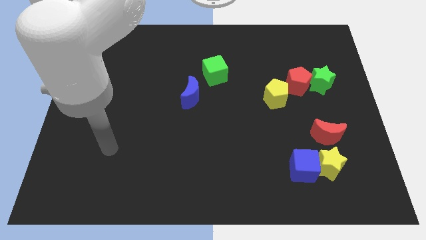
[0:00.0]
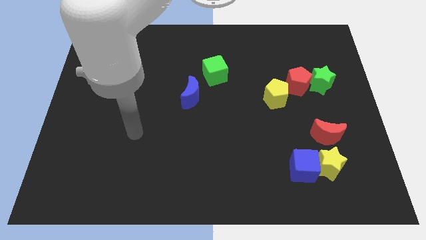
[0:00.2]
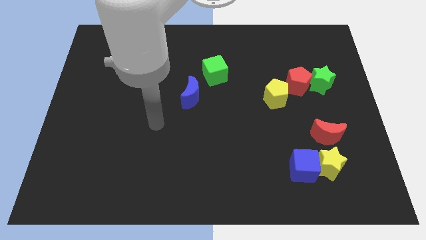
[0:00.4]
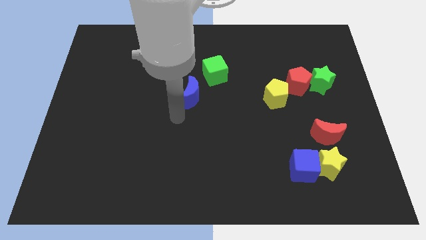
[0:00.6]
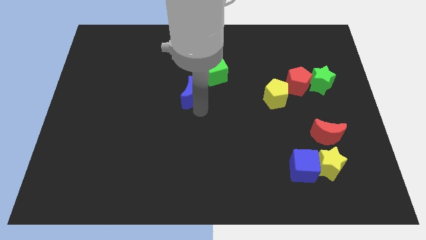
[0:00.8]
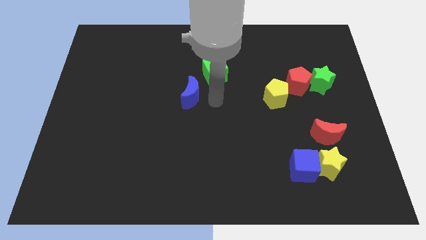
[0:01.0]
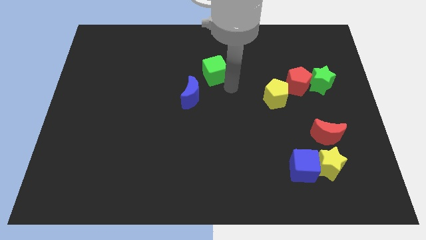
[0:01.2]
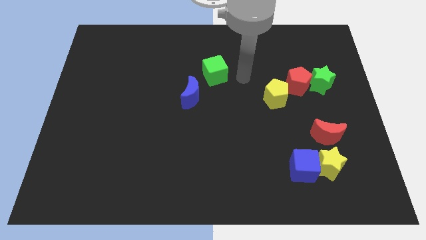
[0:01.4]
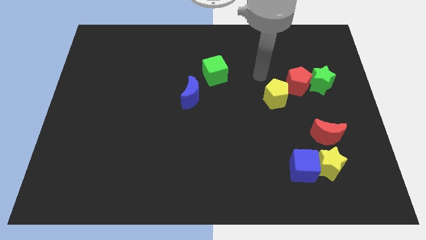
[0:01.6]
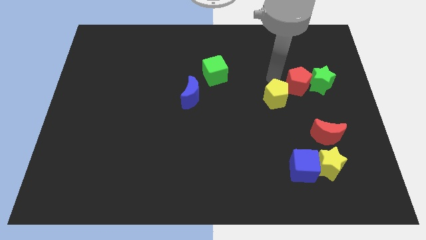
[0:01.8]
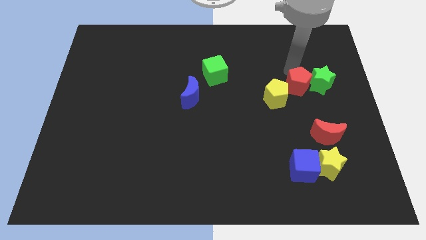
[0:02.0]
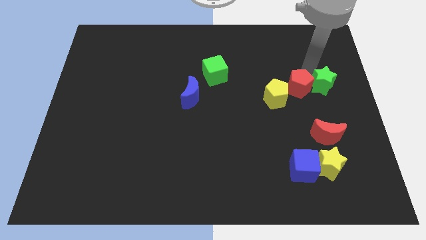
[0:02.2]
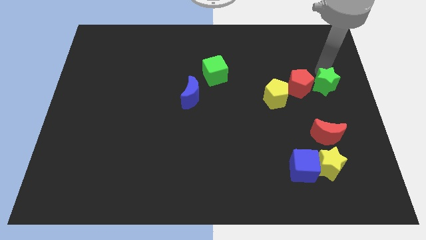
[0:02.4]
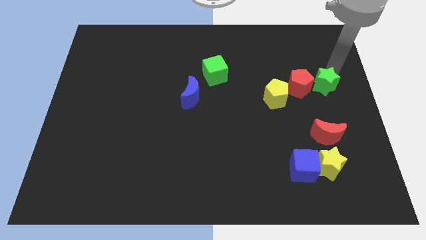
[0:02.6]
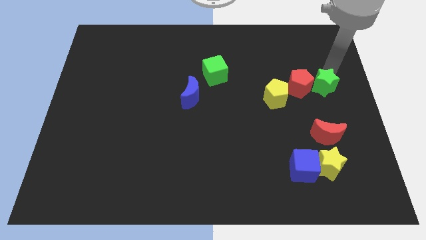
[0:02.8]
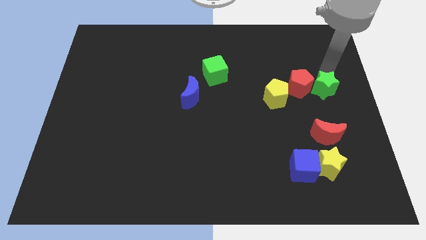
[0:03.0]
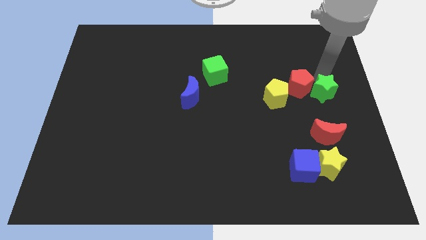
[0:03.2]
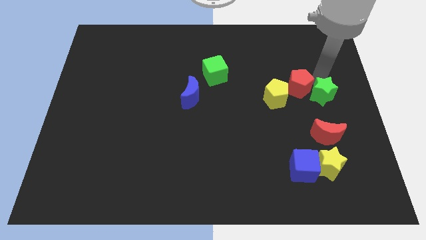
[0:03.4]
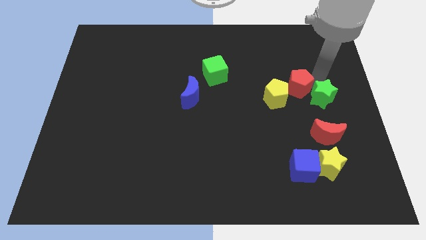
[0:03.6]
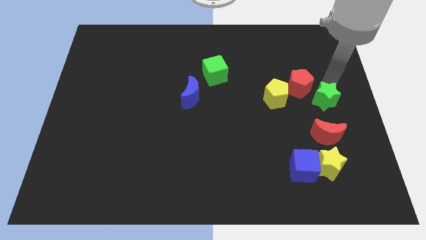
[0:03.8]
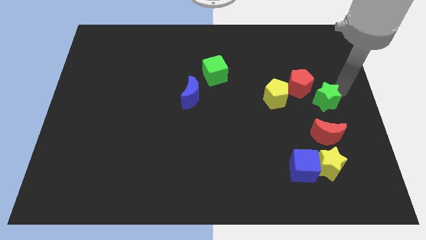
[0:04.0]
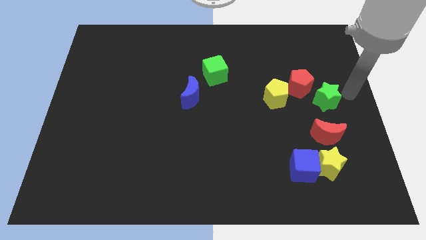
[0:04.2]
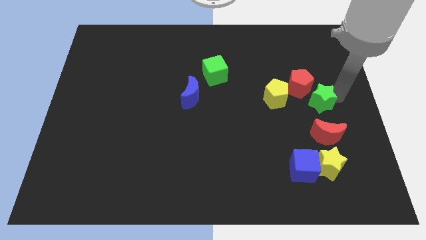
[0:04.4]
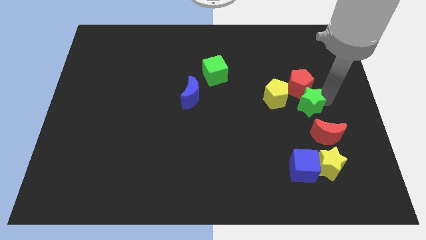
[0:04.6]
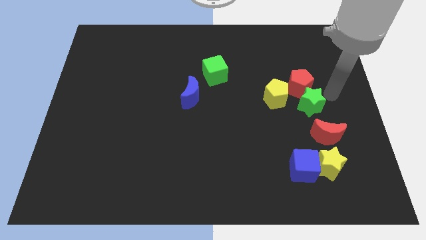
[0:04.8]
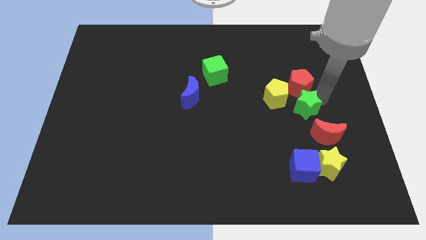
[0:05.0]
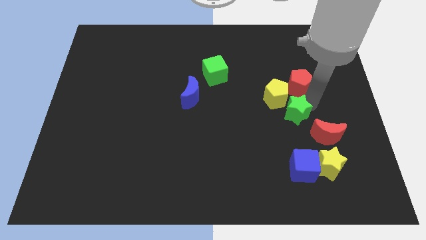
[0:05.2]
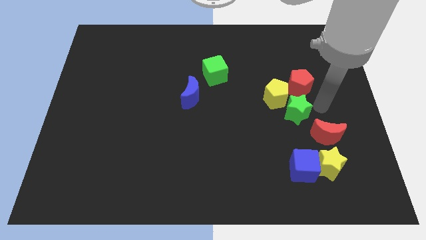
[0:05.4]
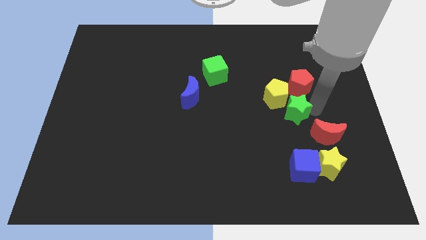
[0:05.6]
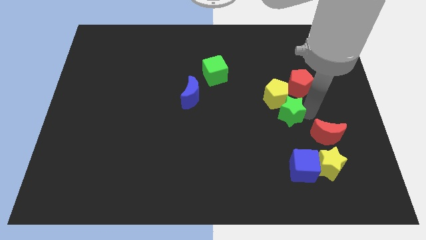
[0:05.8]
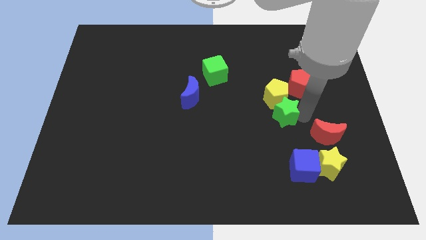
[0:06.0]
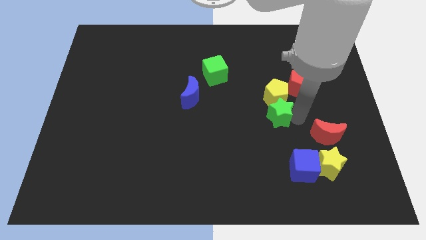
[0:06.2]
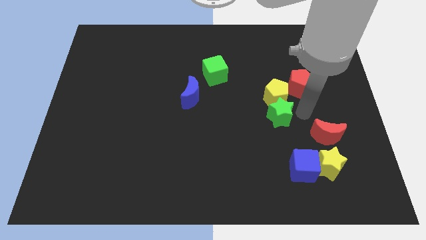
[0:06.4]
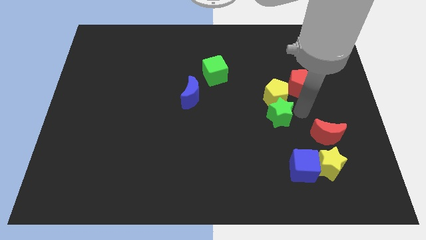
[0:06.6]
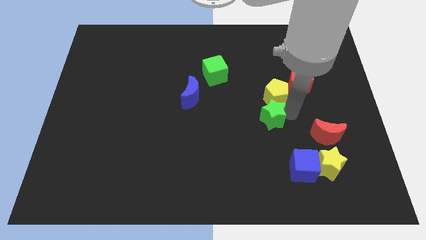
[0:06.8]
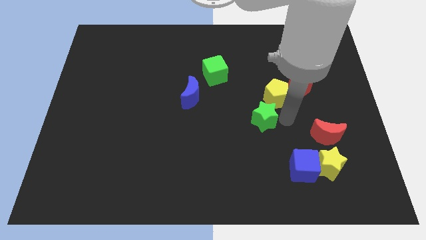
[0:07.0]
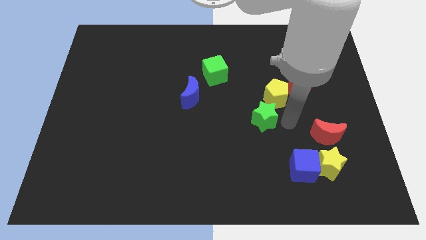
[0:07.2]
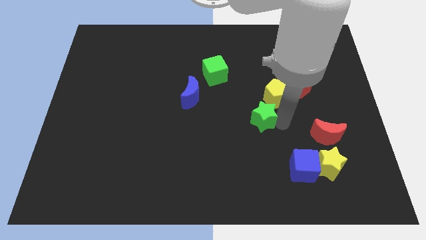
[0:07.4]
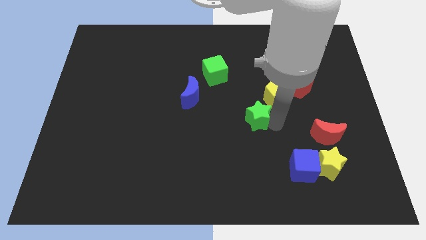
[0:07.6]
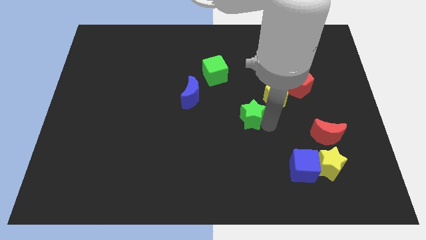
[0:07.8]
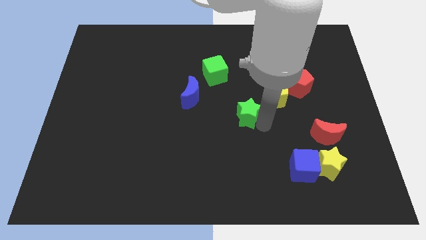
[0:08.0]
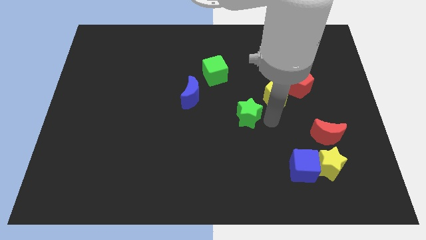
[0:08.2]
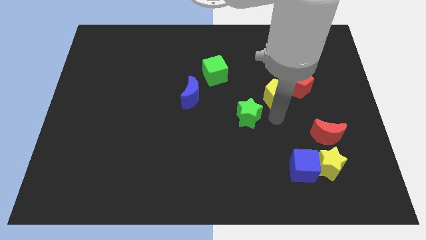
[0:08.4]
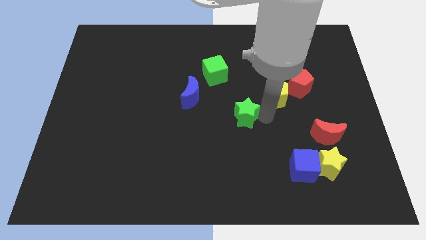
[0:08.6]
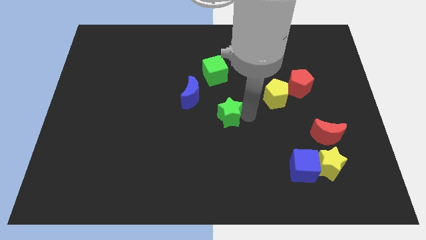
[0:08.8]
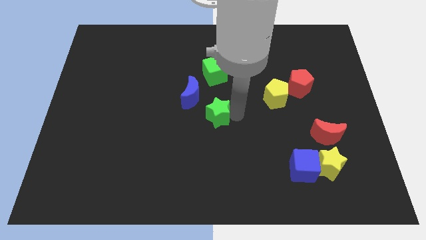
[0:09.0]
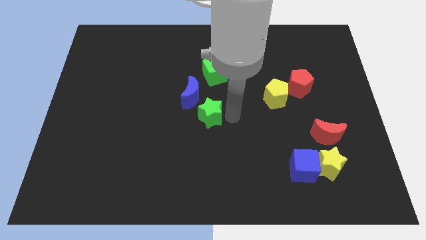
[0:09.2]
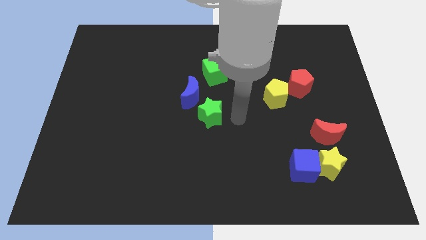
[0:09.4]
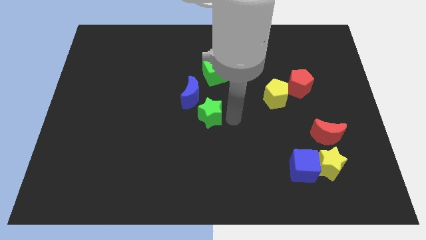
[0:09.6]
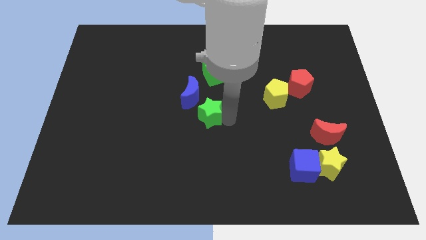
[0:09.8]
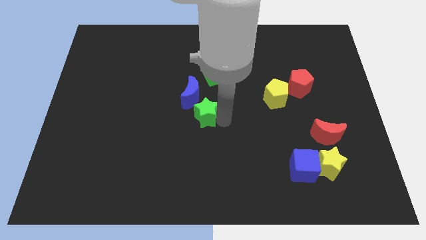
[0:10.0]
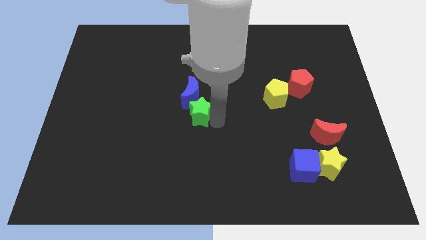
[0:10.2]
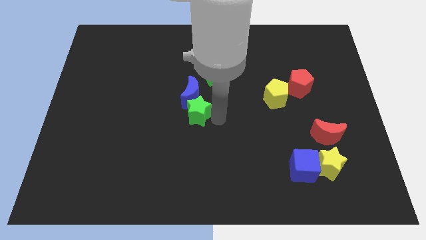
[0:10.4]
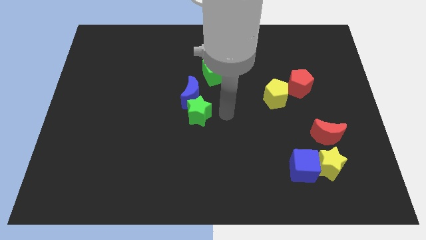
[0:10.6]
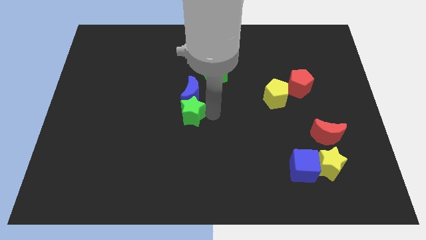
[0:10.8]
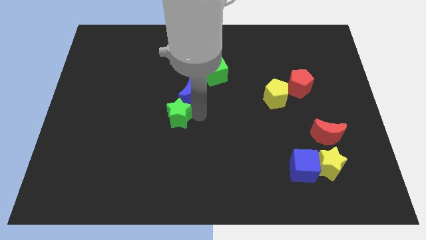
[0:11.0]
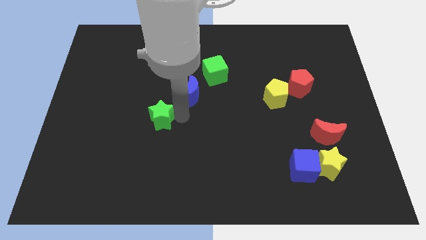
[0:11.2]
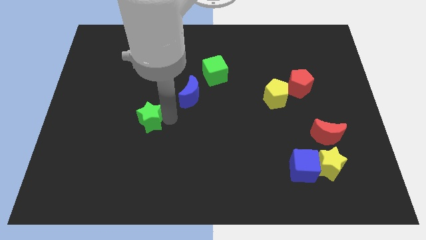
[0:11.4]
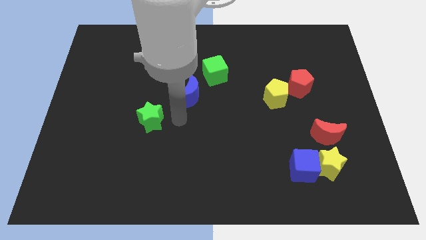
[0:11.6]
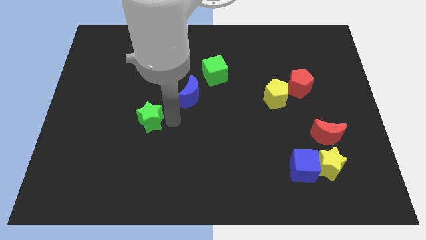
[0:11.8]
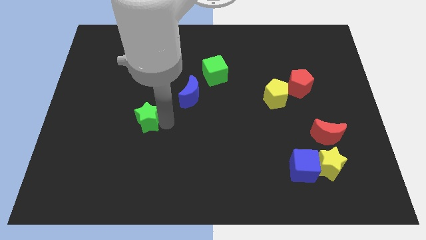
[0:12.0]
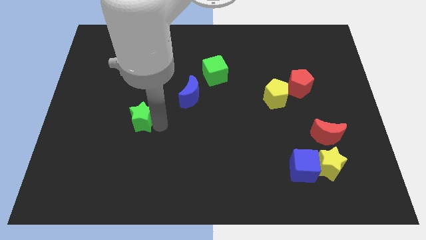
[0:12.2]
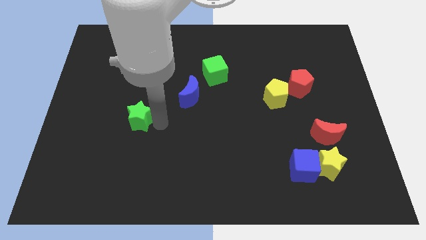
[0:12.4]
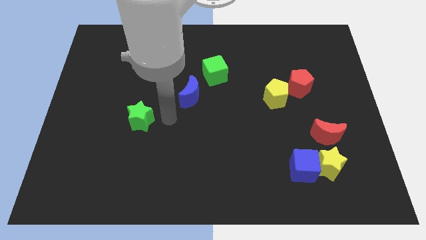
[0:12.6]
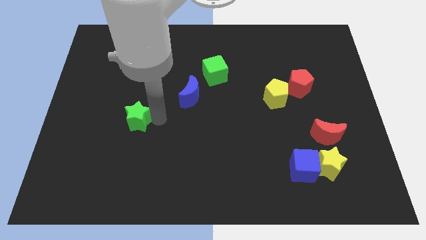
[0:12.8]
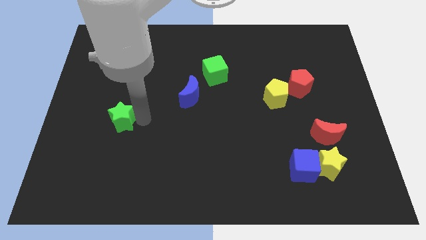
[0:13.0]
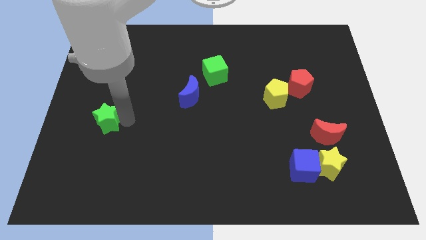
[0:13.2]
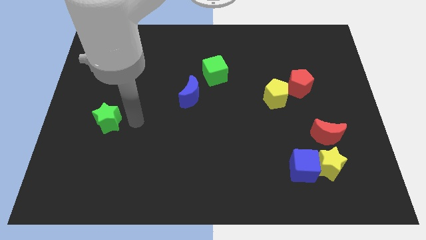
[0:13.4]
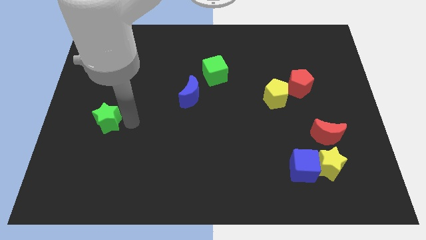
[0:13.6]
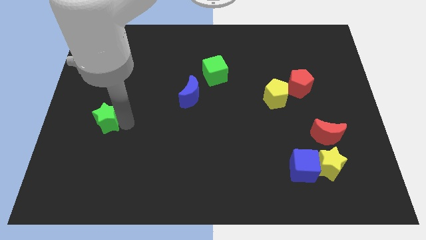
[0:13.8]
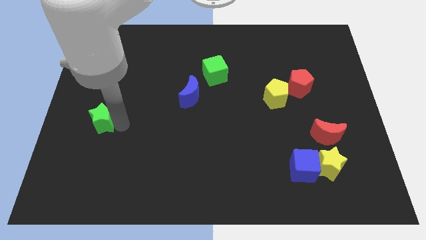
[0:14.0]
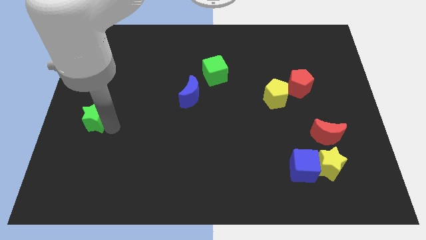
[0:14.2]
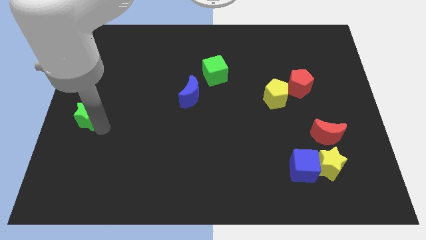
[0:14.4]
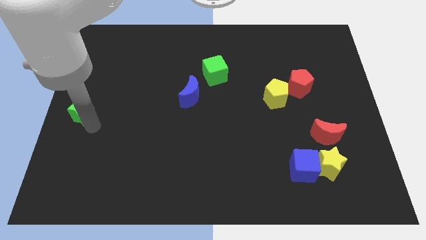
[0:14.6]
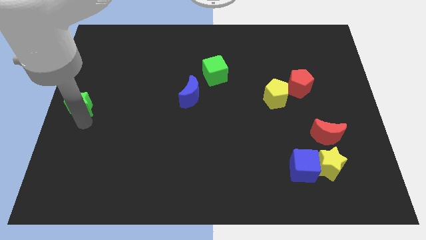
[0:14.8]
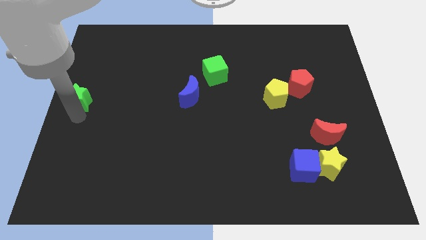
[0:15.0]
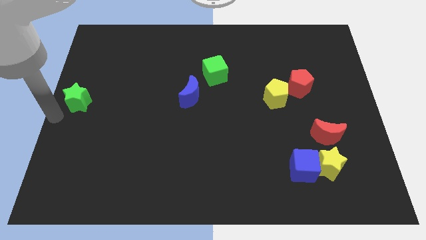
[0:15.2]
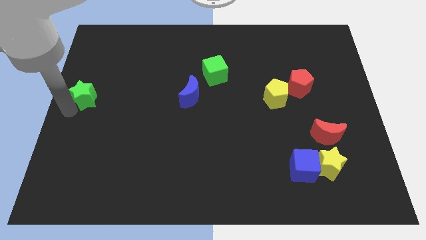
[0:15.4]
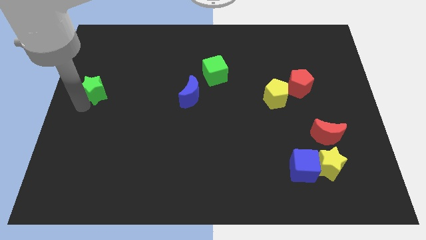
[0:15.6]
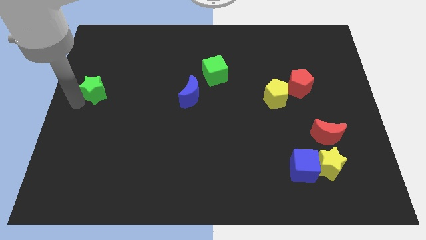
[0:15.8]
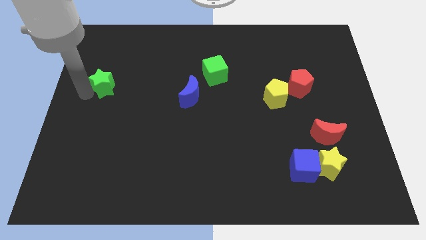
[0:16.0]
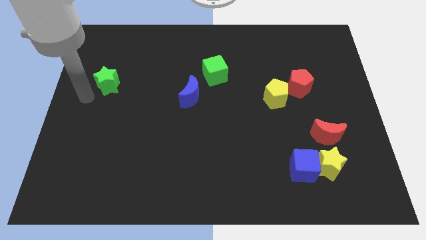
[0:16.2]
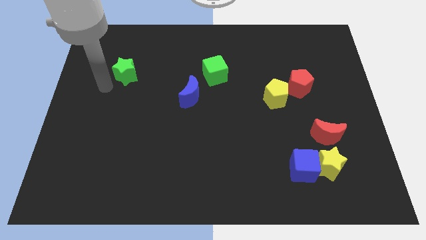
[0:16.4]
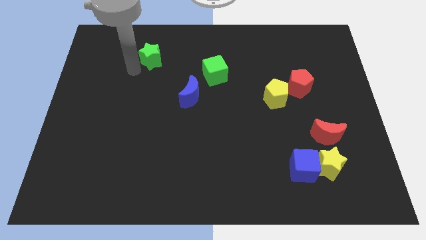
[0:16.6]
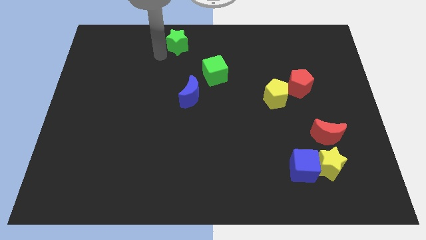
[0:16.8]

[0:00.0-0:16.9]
slide the green star to the top
